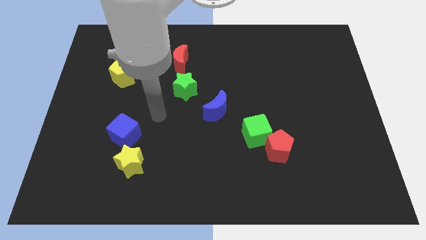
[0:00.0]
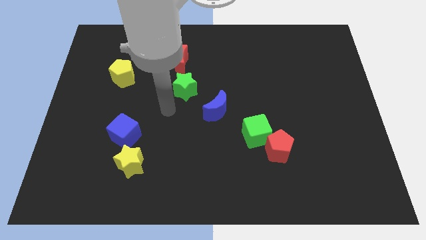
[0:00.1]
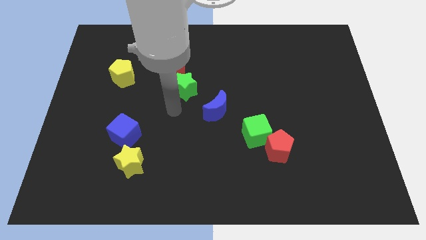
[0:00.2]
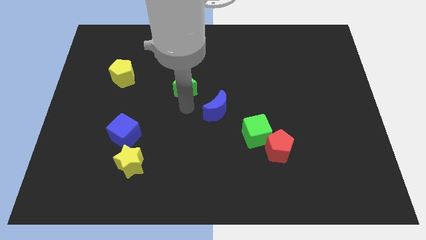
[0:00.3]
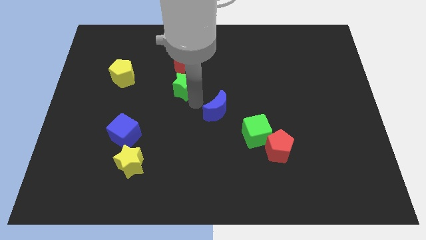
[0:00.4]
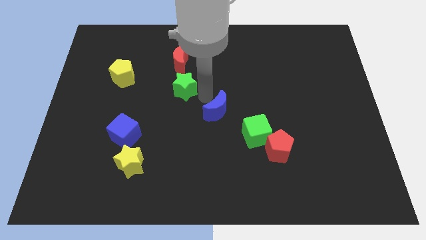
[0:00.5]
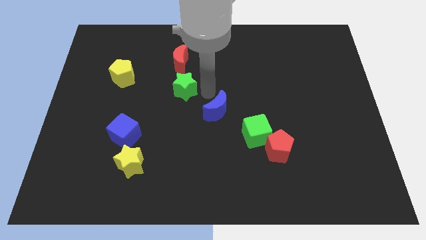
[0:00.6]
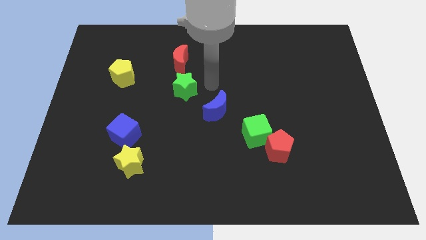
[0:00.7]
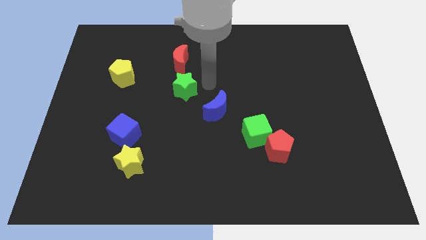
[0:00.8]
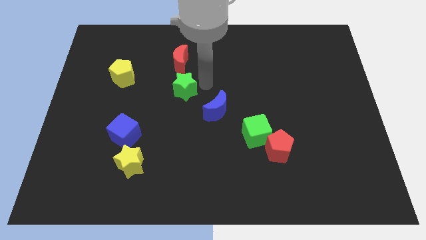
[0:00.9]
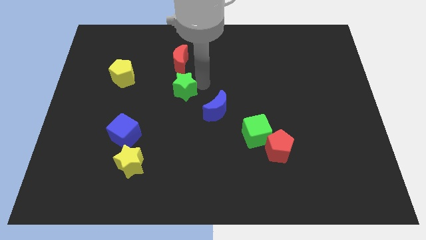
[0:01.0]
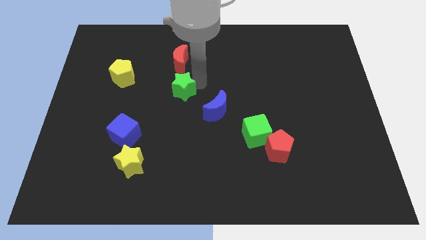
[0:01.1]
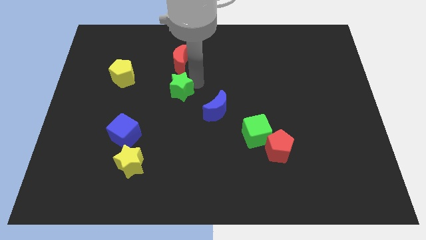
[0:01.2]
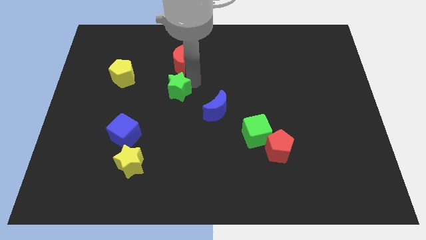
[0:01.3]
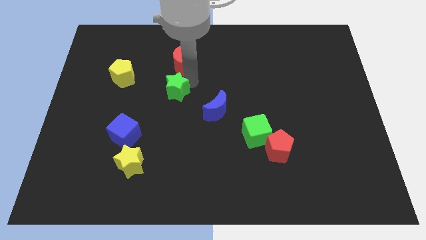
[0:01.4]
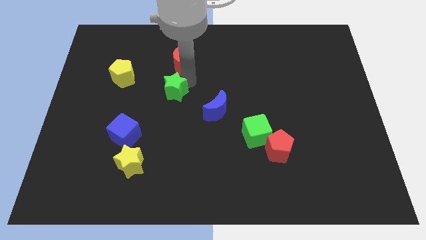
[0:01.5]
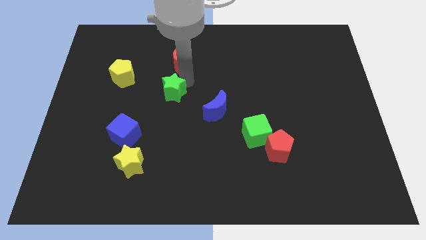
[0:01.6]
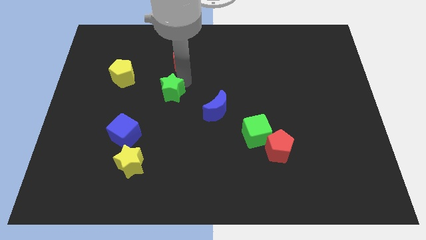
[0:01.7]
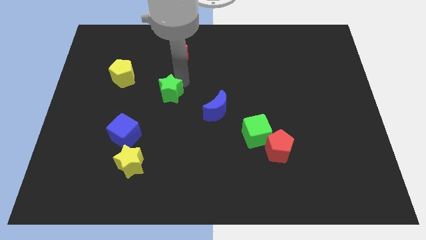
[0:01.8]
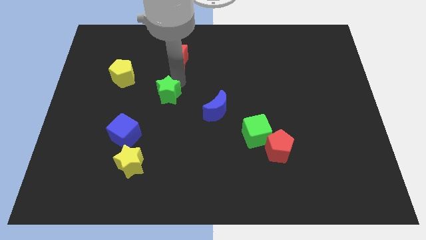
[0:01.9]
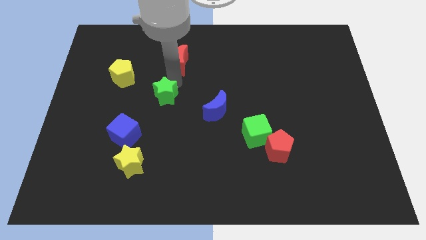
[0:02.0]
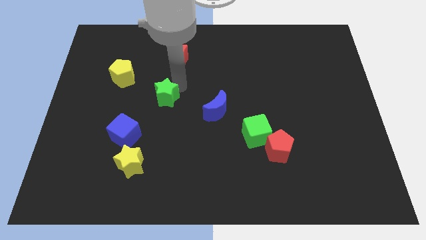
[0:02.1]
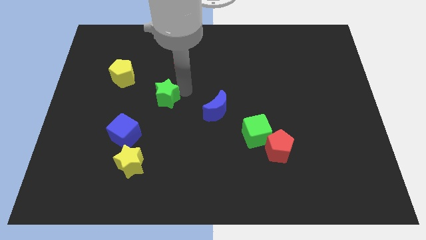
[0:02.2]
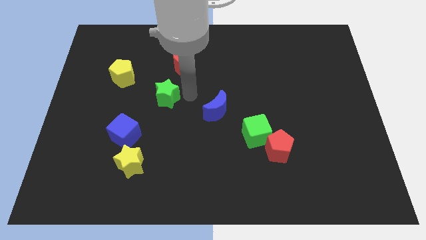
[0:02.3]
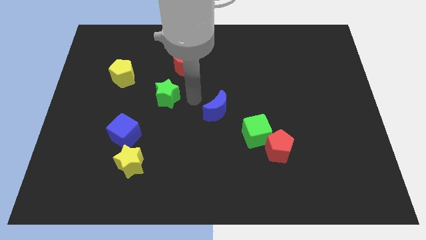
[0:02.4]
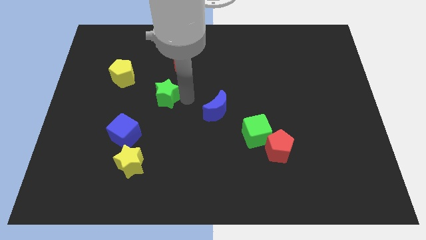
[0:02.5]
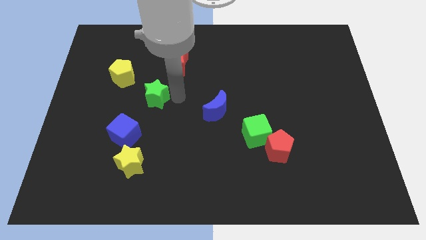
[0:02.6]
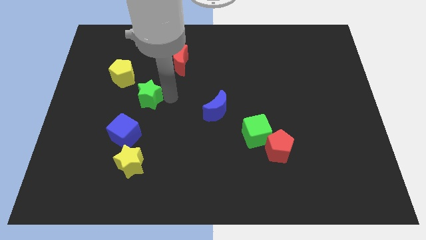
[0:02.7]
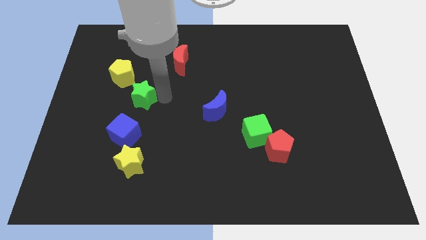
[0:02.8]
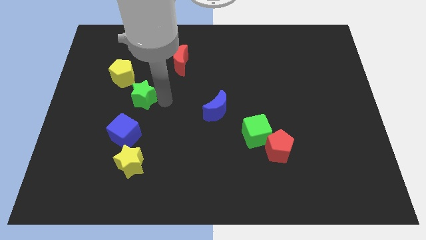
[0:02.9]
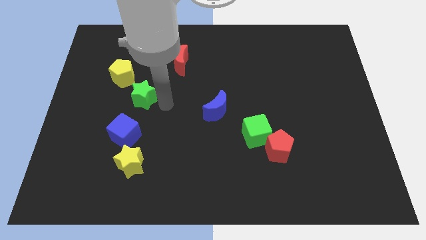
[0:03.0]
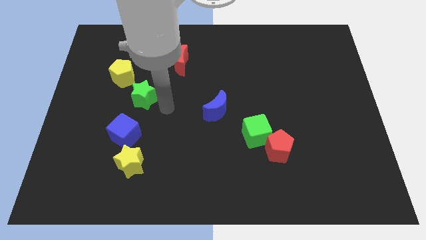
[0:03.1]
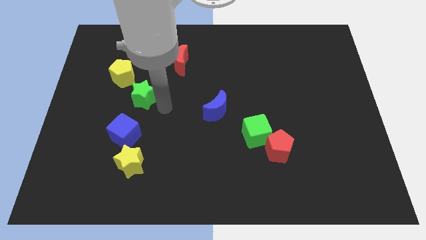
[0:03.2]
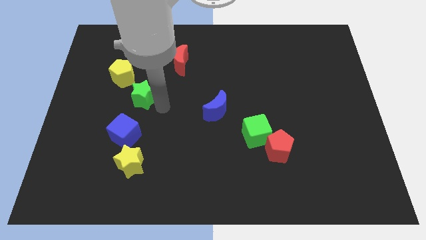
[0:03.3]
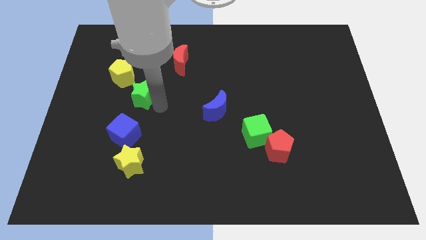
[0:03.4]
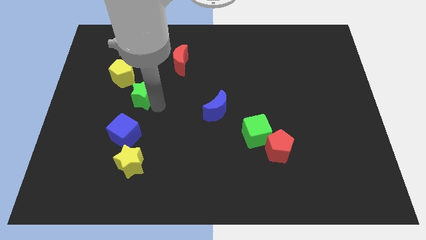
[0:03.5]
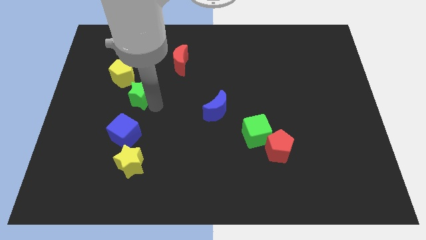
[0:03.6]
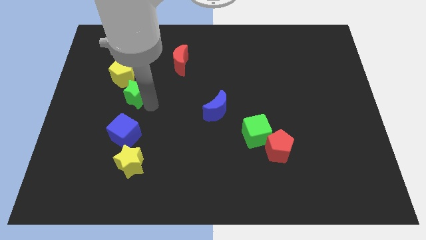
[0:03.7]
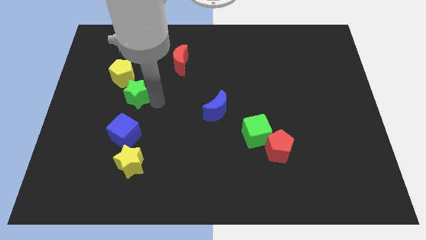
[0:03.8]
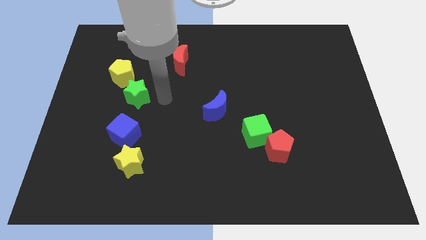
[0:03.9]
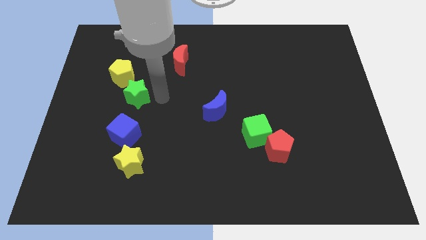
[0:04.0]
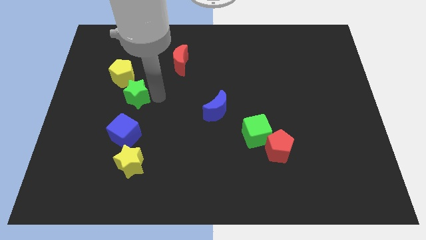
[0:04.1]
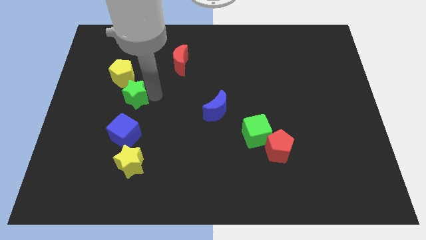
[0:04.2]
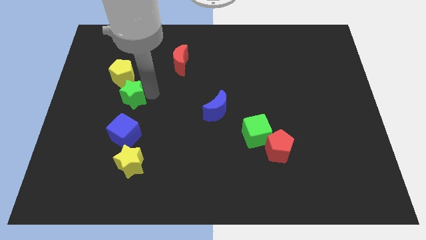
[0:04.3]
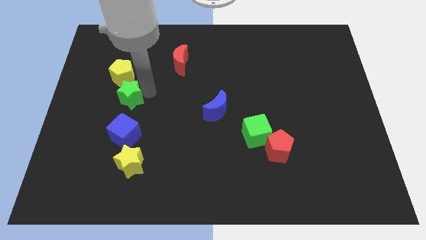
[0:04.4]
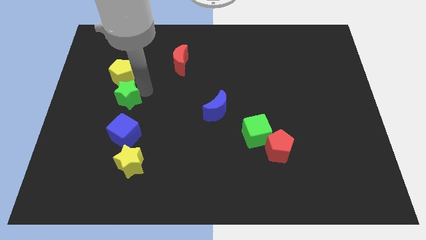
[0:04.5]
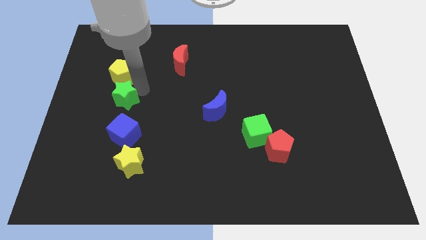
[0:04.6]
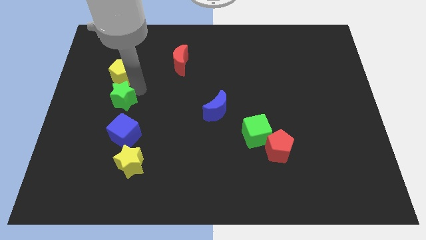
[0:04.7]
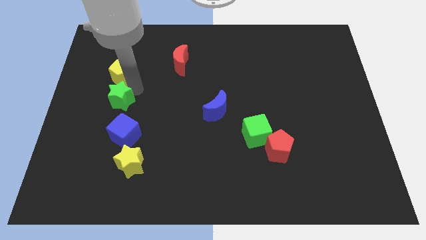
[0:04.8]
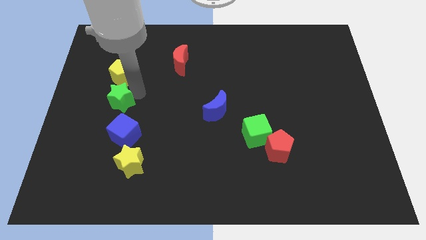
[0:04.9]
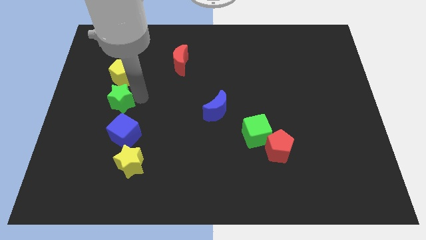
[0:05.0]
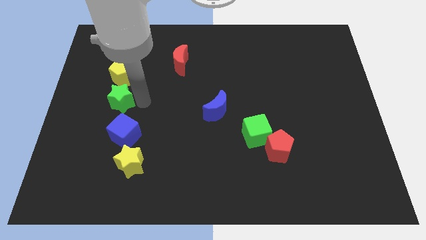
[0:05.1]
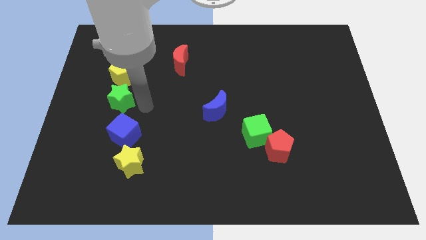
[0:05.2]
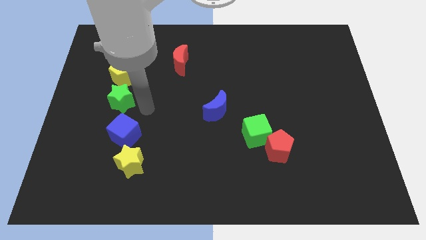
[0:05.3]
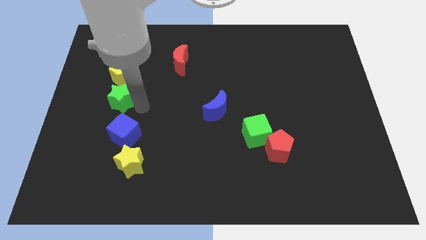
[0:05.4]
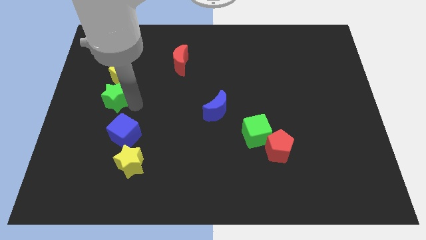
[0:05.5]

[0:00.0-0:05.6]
move the green star to the bottom left of the yellow pentagon

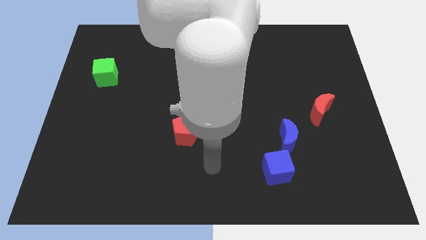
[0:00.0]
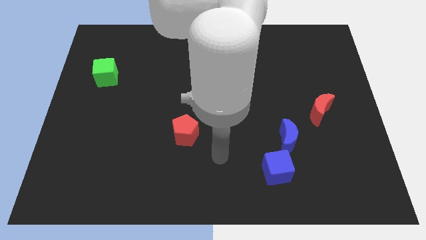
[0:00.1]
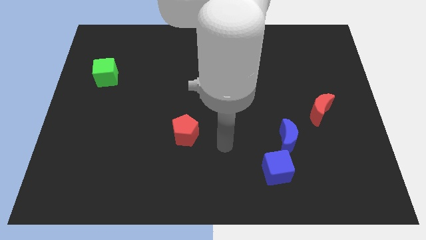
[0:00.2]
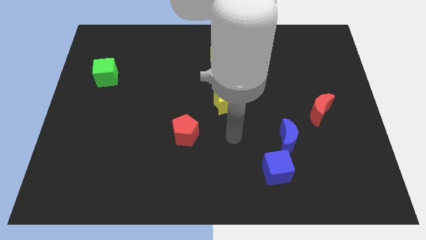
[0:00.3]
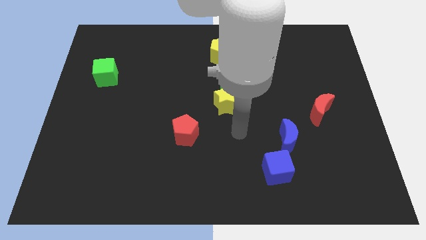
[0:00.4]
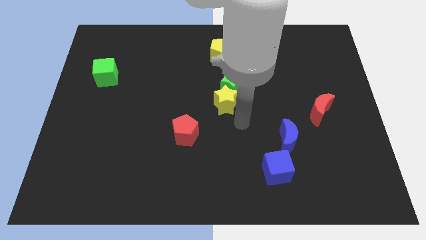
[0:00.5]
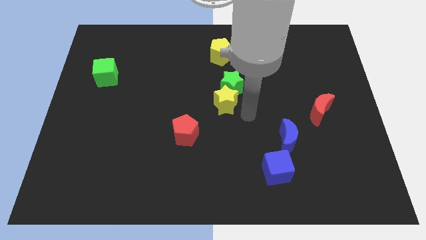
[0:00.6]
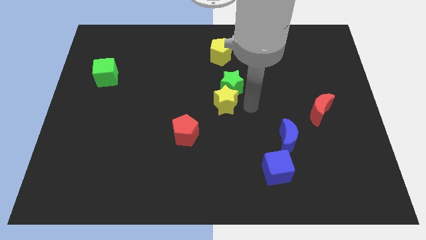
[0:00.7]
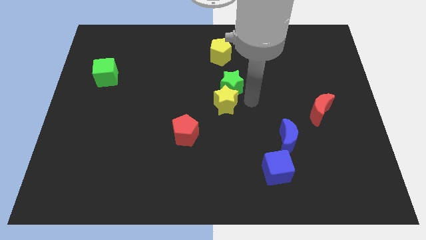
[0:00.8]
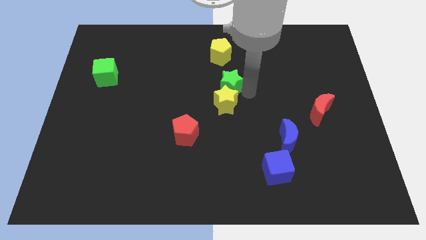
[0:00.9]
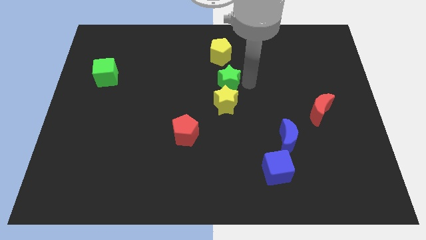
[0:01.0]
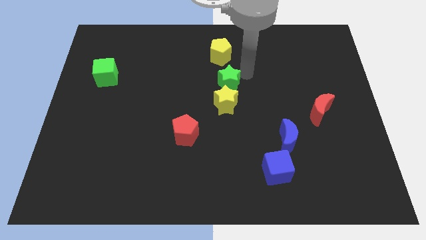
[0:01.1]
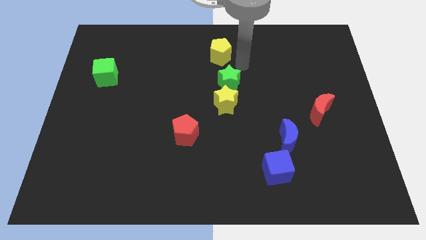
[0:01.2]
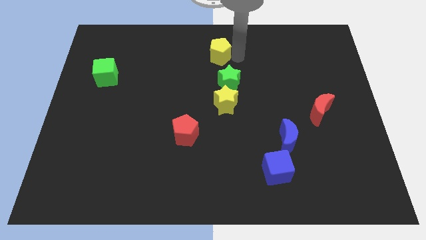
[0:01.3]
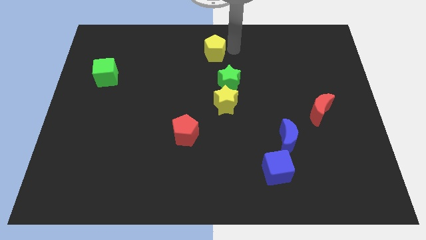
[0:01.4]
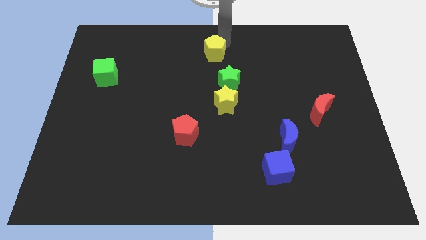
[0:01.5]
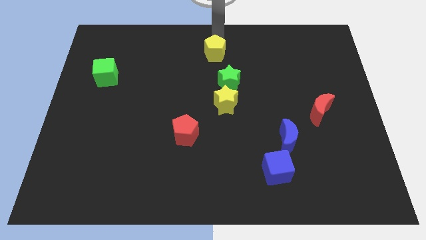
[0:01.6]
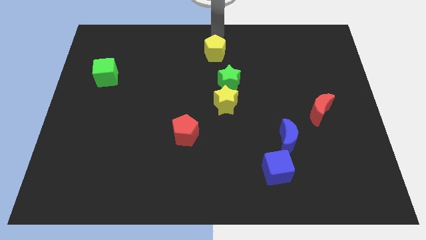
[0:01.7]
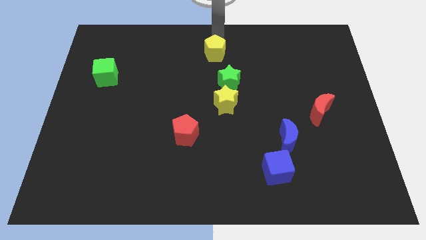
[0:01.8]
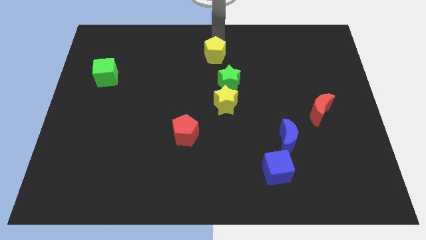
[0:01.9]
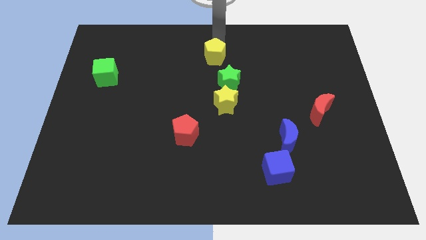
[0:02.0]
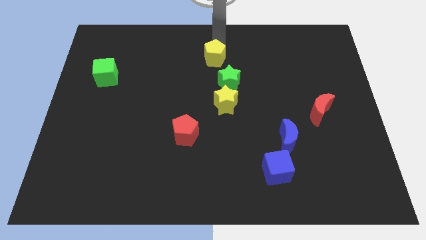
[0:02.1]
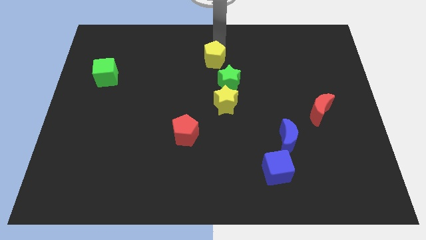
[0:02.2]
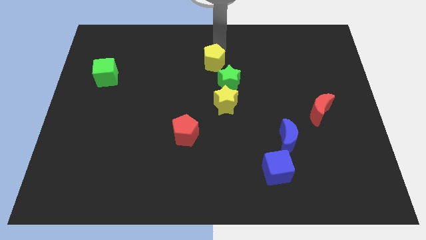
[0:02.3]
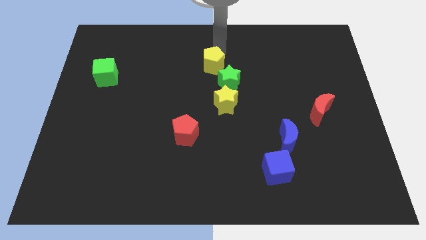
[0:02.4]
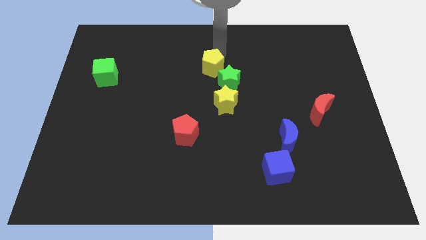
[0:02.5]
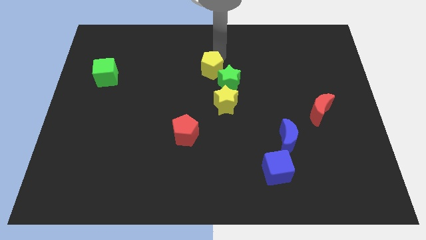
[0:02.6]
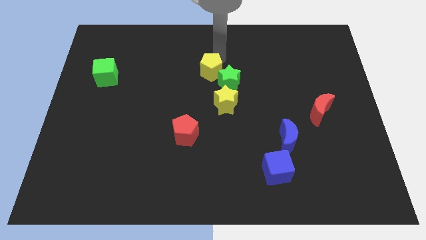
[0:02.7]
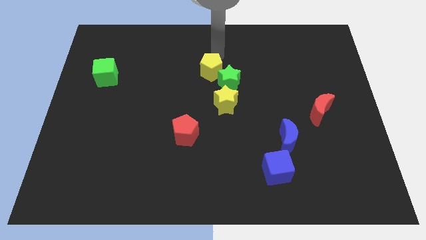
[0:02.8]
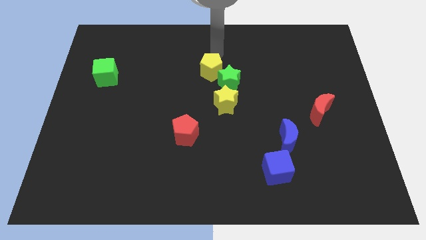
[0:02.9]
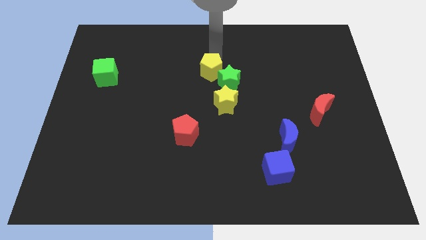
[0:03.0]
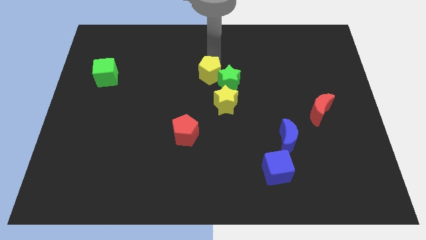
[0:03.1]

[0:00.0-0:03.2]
slide the yellow pentagon to the top left side of the yellow star
